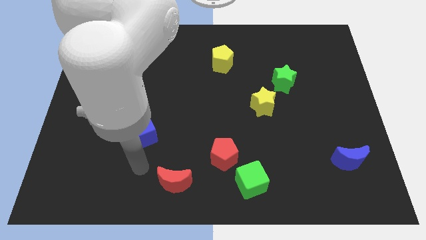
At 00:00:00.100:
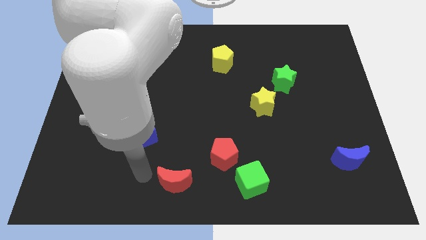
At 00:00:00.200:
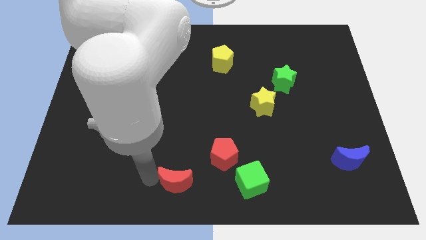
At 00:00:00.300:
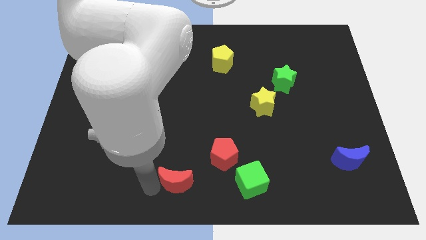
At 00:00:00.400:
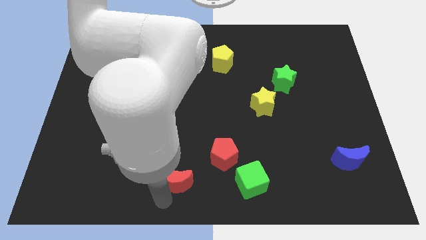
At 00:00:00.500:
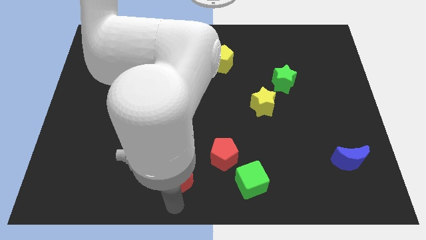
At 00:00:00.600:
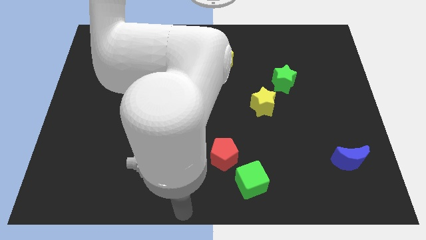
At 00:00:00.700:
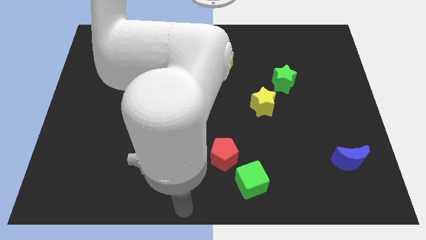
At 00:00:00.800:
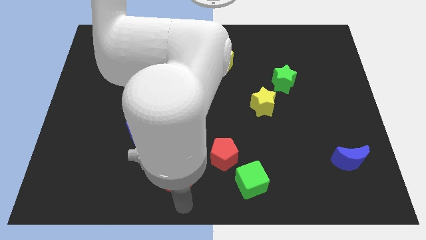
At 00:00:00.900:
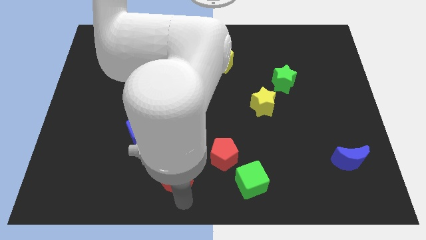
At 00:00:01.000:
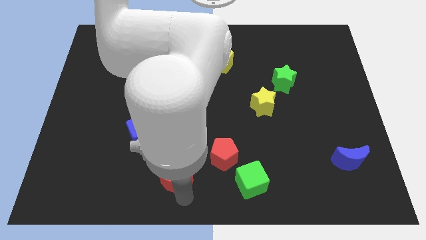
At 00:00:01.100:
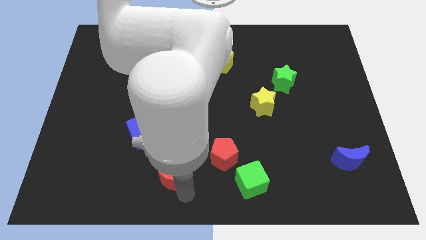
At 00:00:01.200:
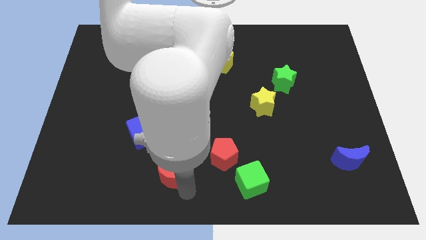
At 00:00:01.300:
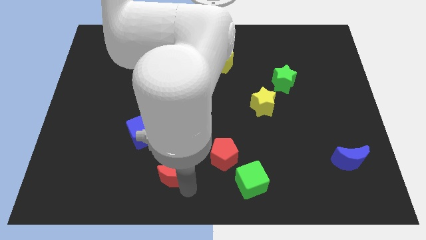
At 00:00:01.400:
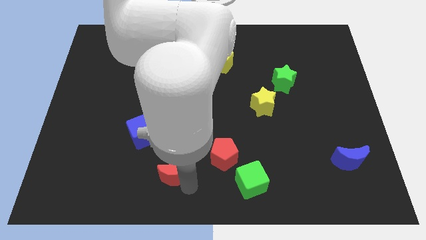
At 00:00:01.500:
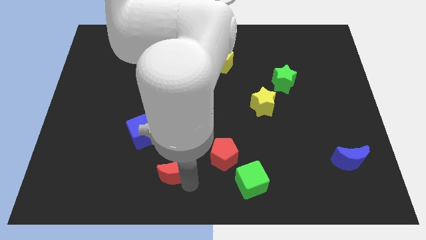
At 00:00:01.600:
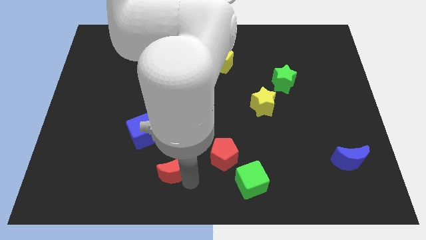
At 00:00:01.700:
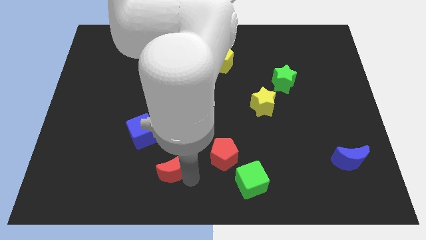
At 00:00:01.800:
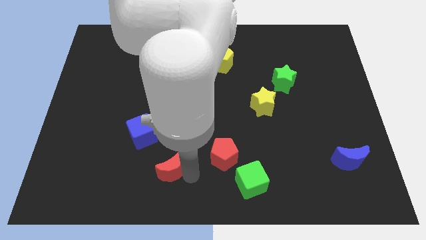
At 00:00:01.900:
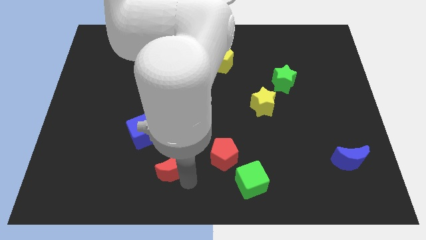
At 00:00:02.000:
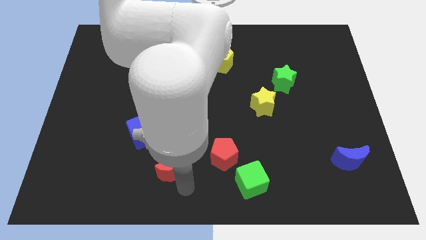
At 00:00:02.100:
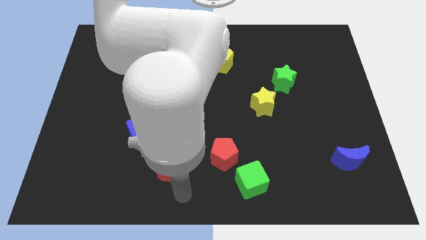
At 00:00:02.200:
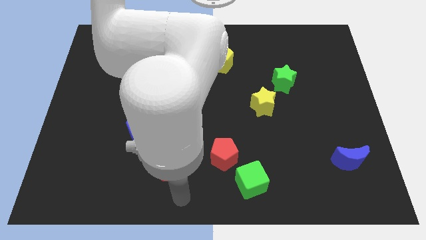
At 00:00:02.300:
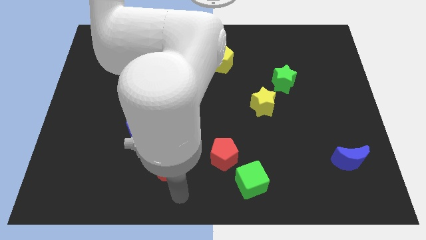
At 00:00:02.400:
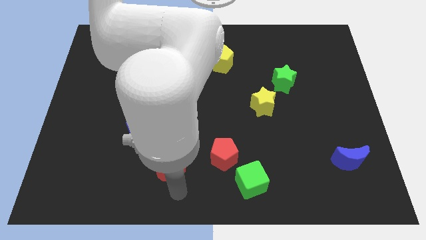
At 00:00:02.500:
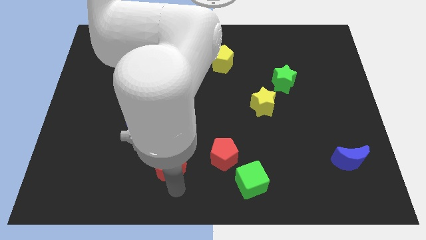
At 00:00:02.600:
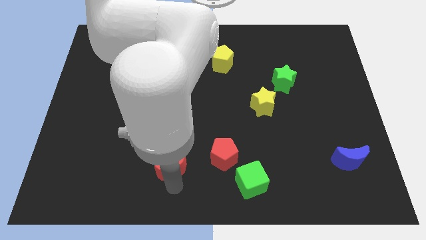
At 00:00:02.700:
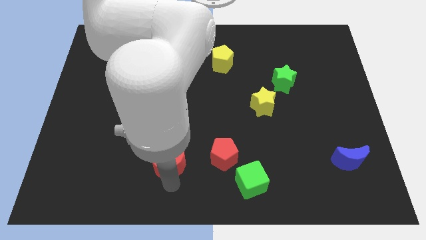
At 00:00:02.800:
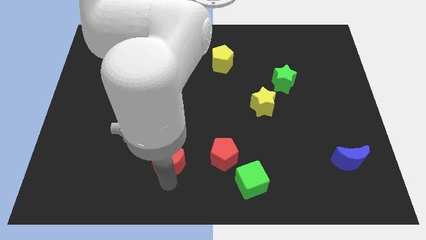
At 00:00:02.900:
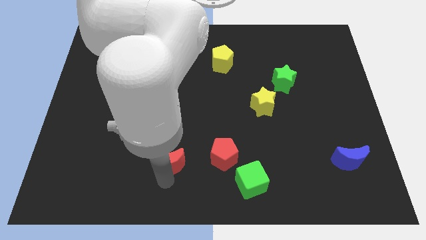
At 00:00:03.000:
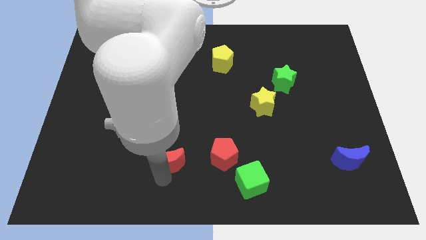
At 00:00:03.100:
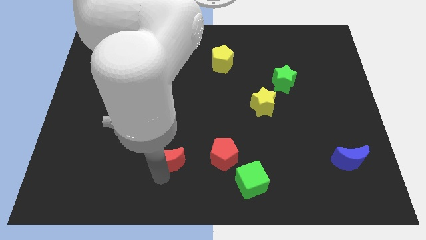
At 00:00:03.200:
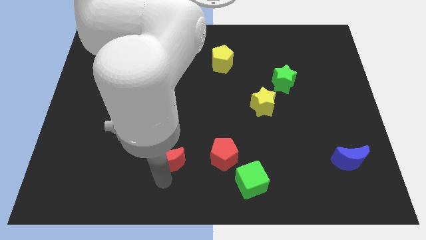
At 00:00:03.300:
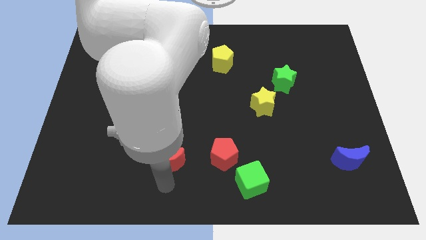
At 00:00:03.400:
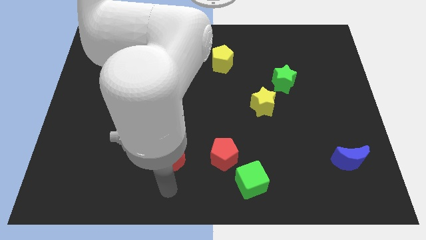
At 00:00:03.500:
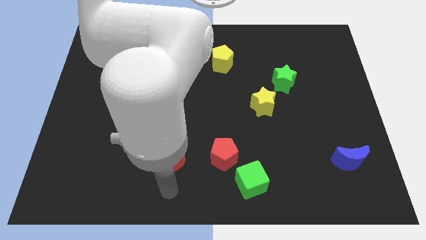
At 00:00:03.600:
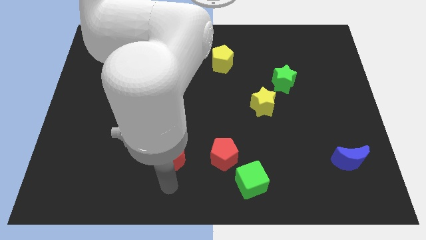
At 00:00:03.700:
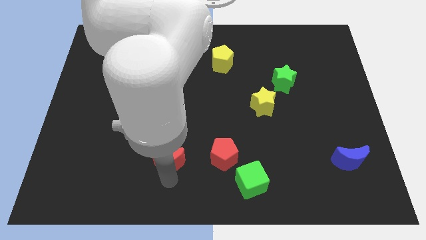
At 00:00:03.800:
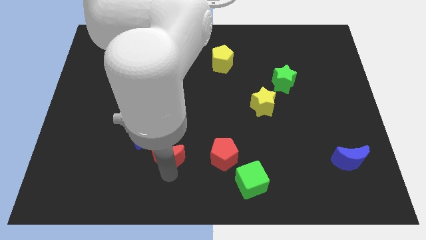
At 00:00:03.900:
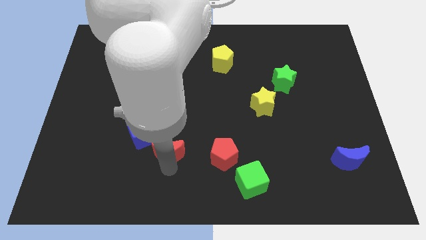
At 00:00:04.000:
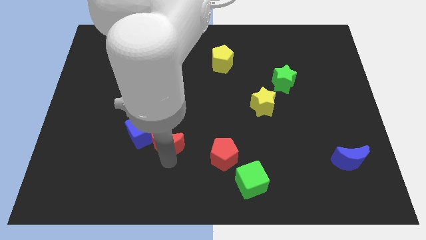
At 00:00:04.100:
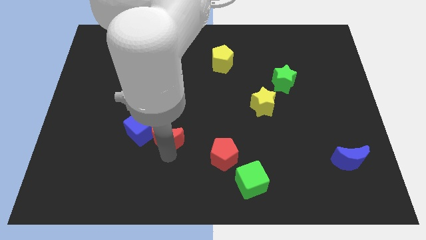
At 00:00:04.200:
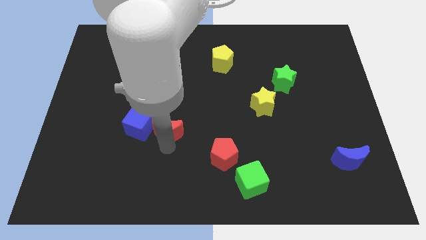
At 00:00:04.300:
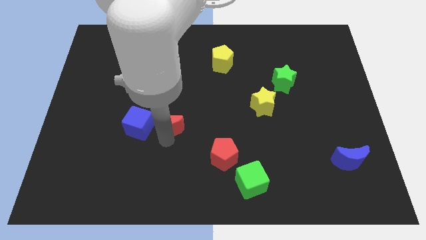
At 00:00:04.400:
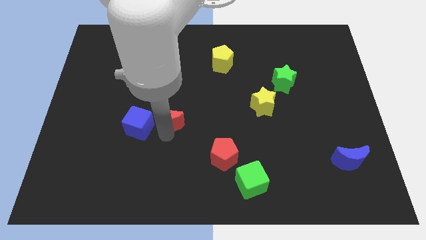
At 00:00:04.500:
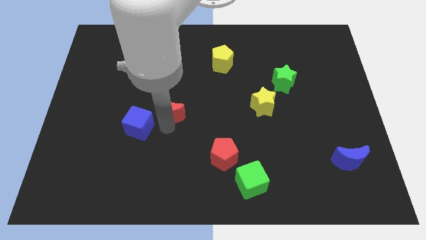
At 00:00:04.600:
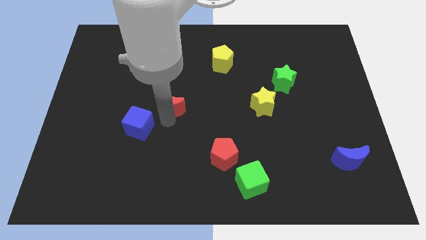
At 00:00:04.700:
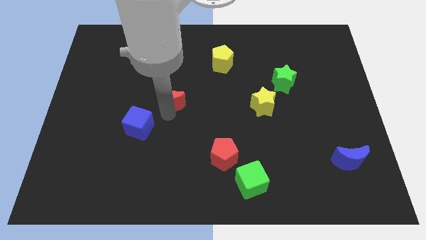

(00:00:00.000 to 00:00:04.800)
push the red moon upwards

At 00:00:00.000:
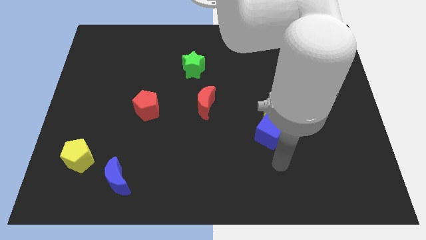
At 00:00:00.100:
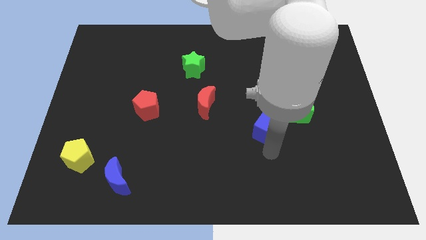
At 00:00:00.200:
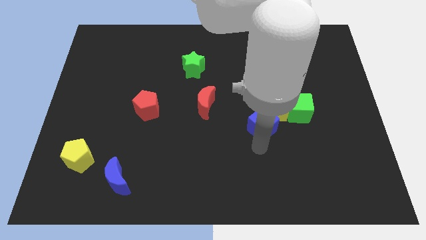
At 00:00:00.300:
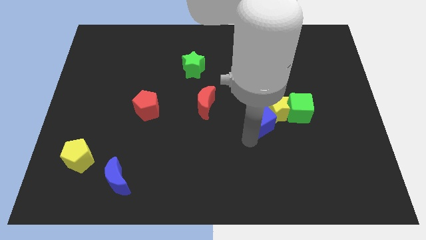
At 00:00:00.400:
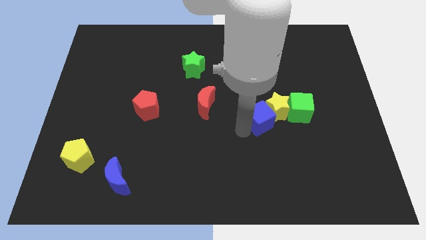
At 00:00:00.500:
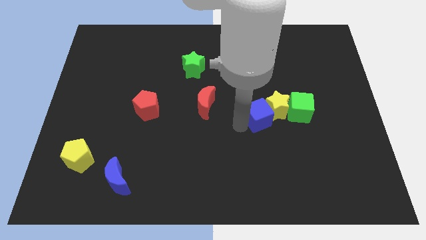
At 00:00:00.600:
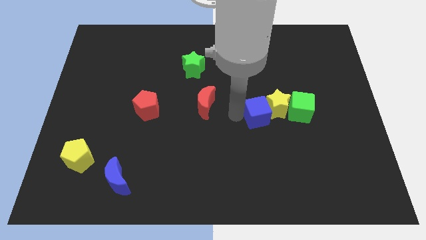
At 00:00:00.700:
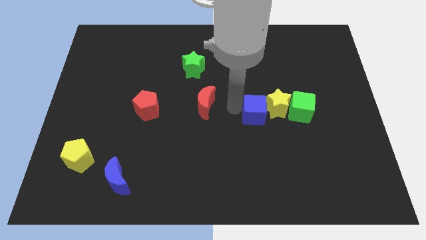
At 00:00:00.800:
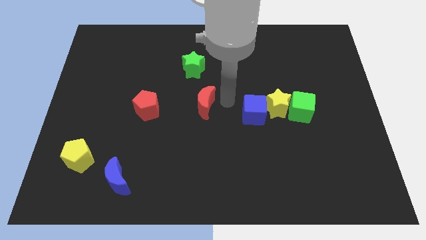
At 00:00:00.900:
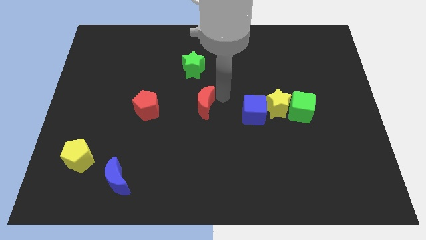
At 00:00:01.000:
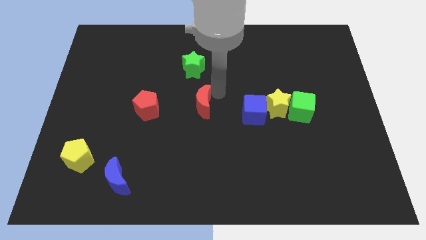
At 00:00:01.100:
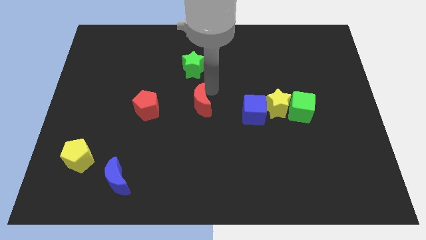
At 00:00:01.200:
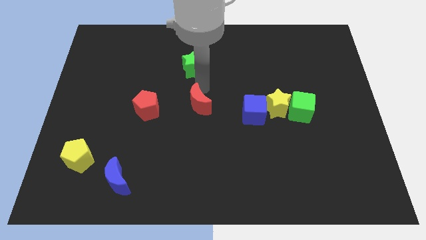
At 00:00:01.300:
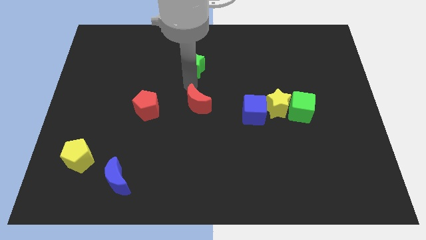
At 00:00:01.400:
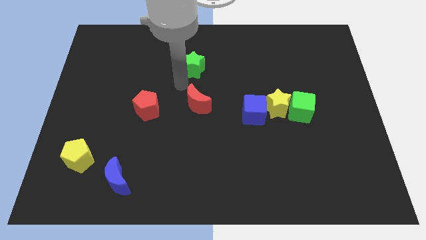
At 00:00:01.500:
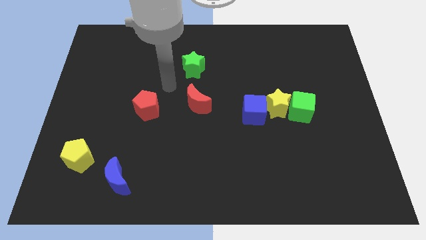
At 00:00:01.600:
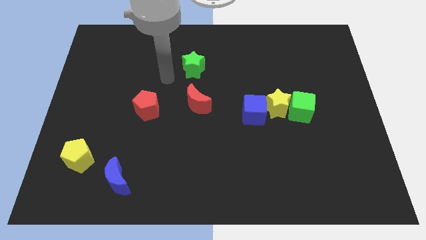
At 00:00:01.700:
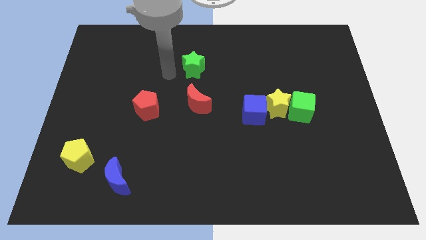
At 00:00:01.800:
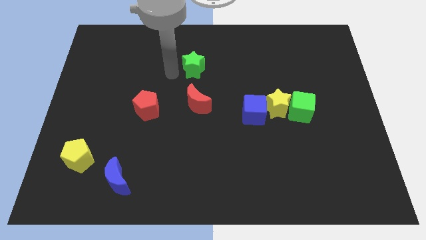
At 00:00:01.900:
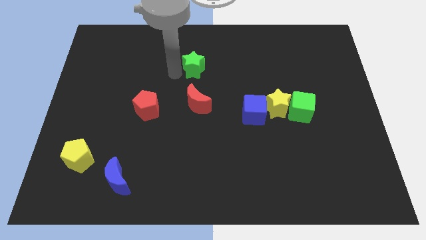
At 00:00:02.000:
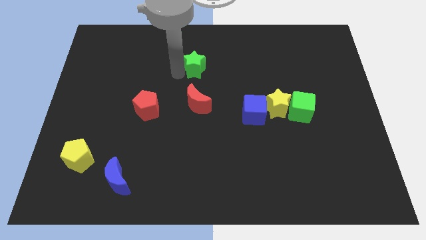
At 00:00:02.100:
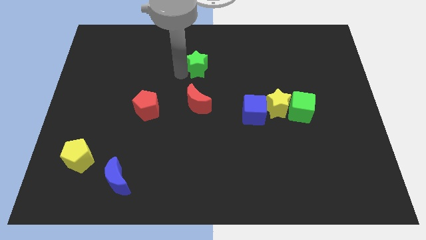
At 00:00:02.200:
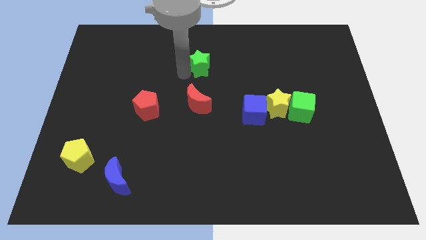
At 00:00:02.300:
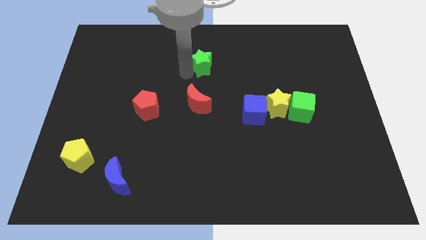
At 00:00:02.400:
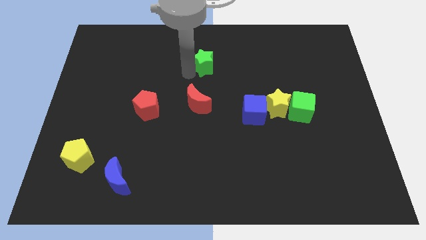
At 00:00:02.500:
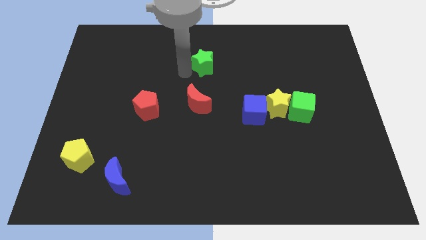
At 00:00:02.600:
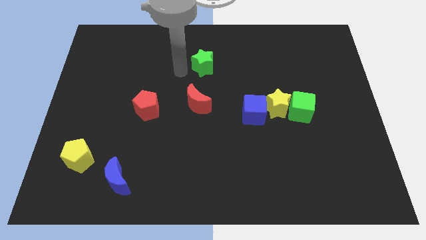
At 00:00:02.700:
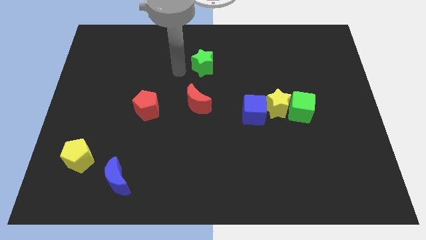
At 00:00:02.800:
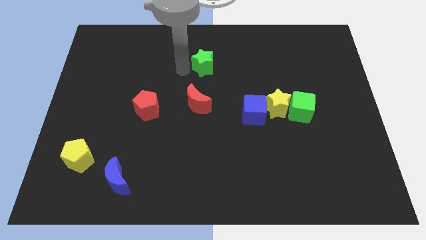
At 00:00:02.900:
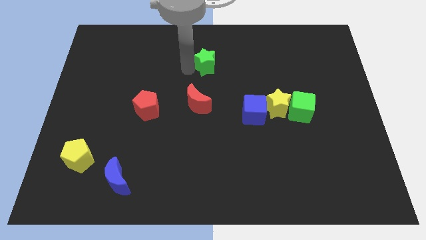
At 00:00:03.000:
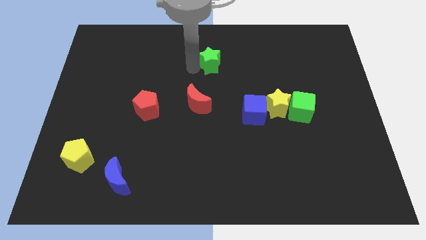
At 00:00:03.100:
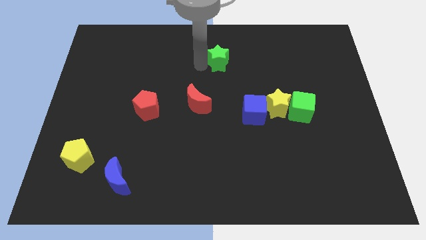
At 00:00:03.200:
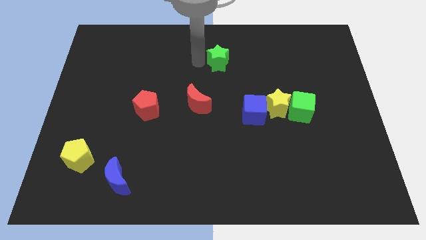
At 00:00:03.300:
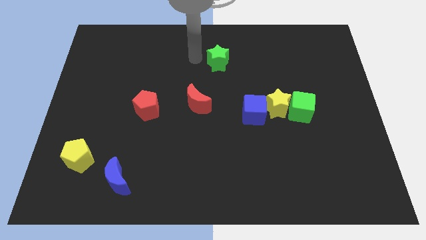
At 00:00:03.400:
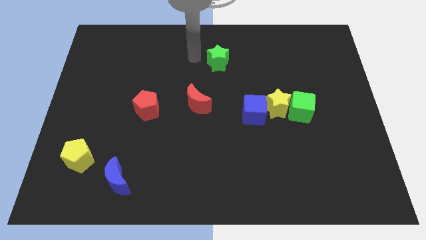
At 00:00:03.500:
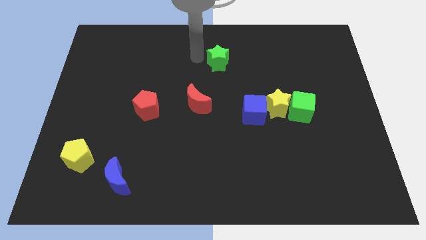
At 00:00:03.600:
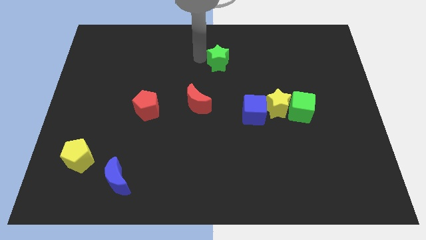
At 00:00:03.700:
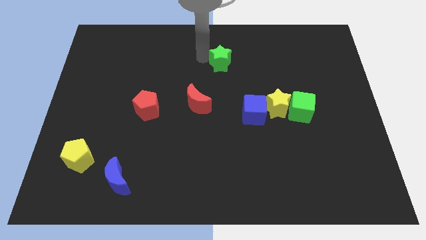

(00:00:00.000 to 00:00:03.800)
slightly push the green star right
